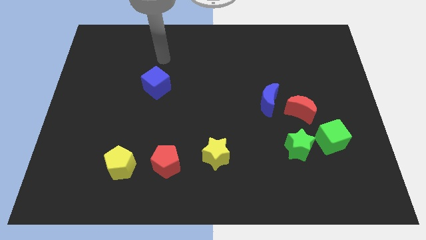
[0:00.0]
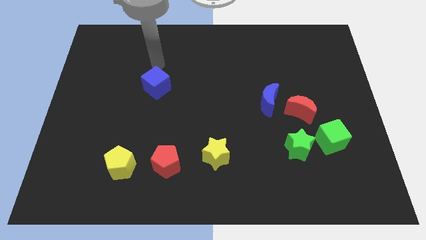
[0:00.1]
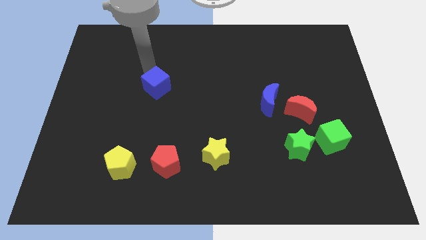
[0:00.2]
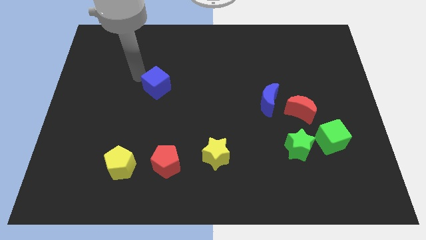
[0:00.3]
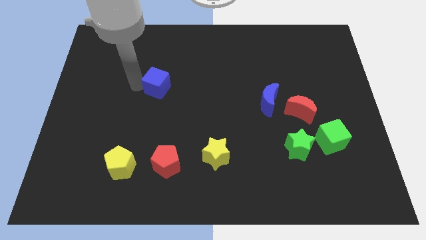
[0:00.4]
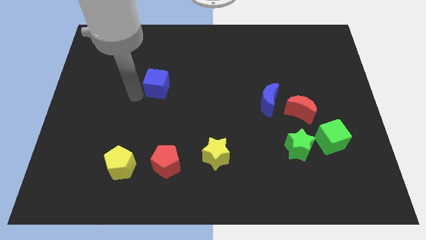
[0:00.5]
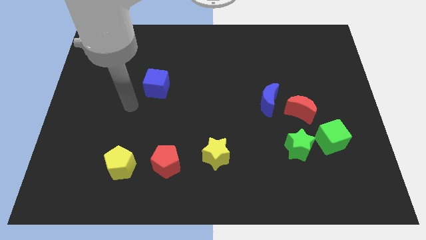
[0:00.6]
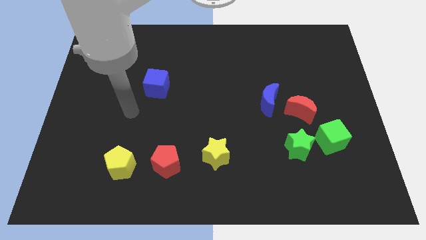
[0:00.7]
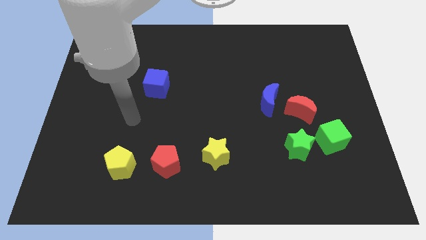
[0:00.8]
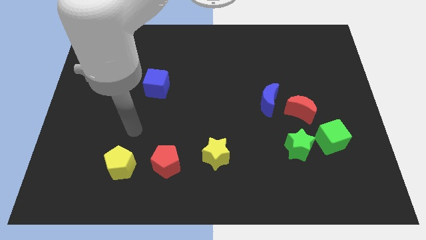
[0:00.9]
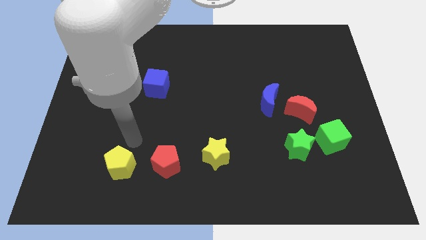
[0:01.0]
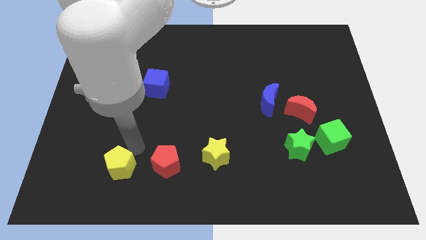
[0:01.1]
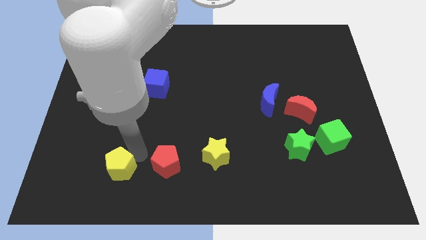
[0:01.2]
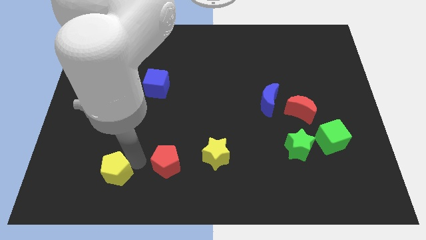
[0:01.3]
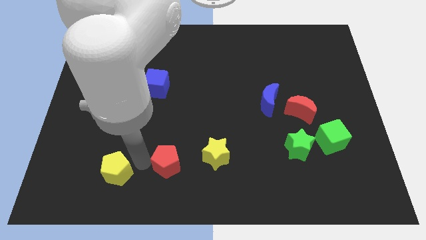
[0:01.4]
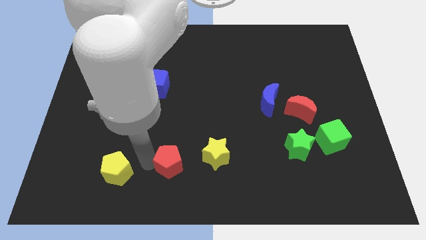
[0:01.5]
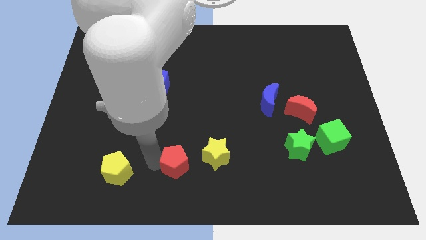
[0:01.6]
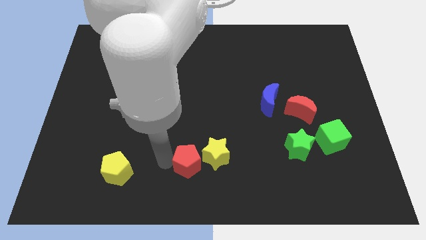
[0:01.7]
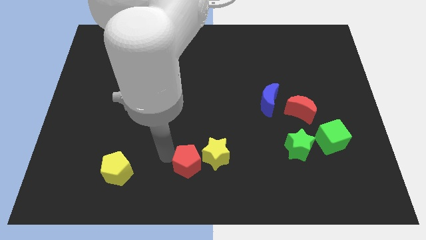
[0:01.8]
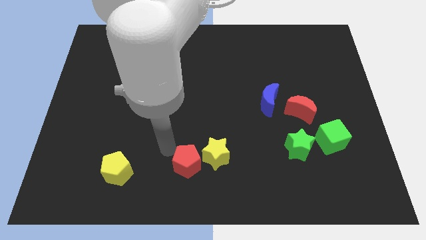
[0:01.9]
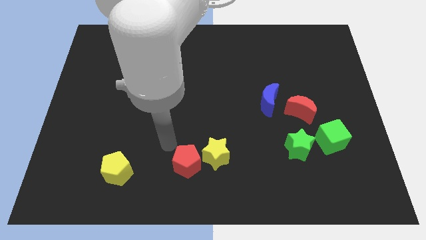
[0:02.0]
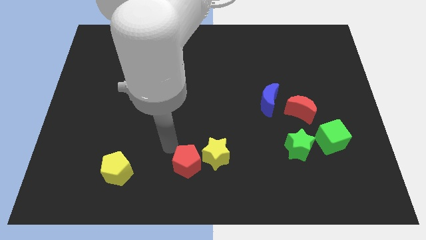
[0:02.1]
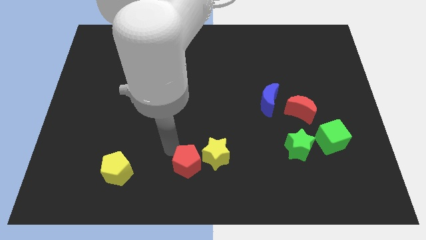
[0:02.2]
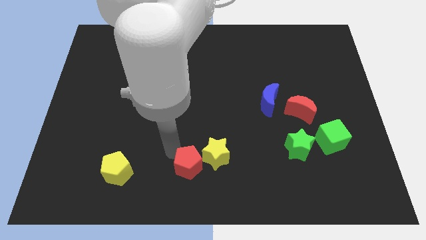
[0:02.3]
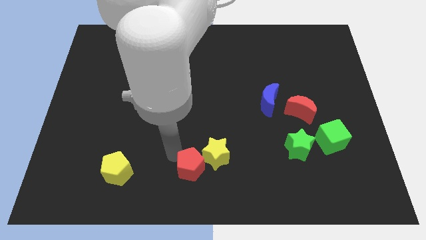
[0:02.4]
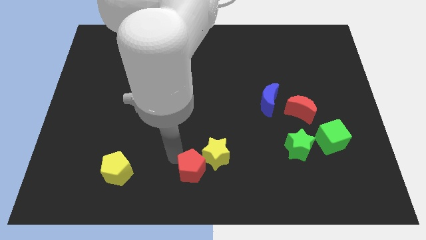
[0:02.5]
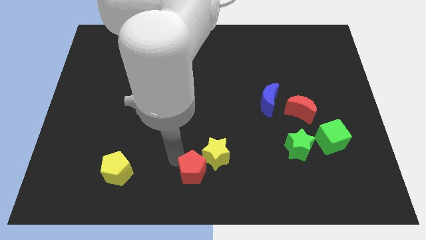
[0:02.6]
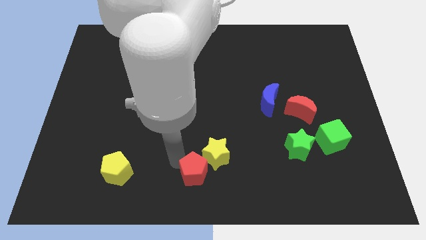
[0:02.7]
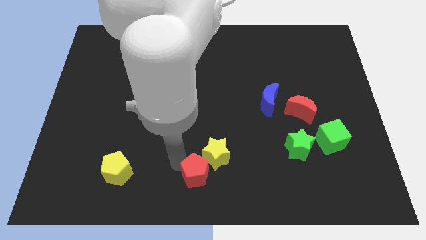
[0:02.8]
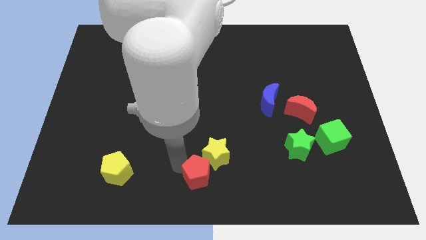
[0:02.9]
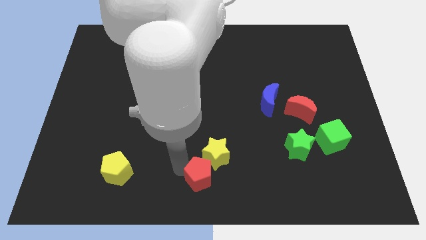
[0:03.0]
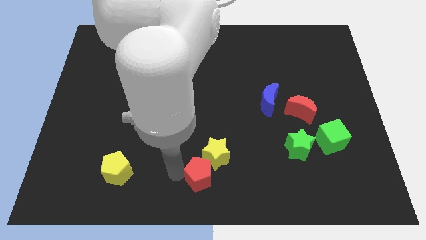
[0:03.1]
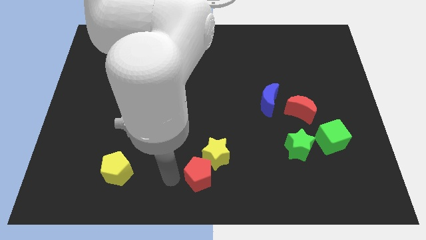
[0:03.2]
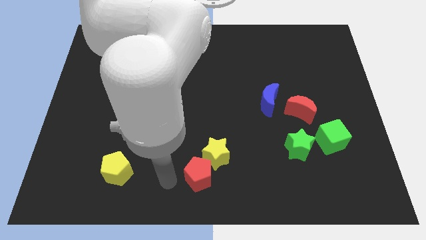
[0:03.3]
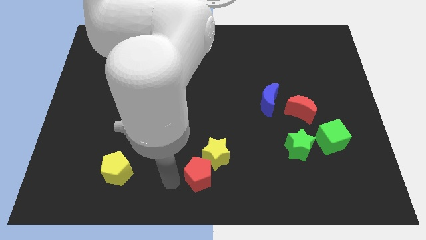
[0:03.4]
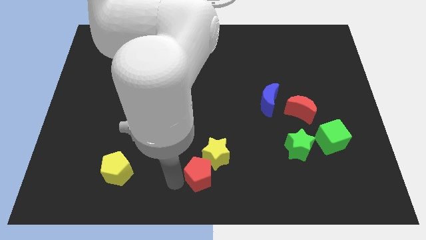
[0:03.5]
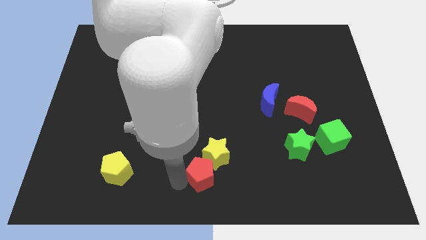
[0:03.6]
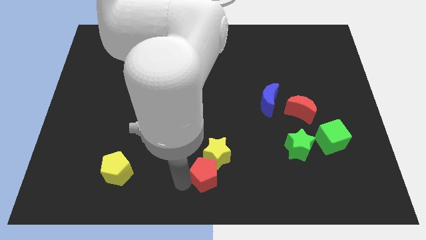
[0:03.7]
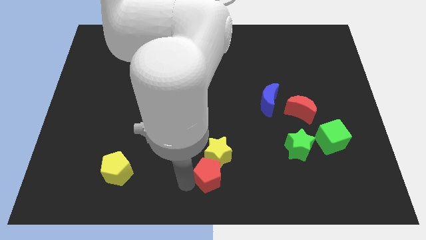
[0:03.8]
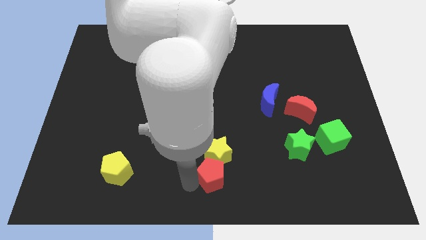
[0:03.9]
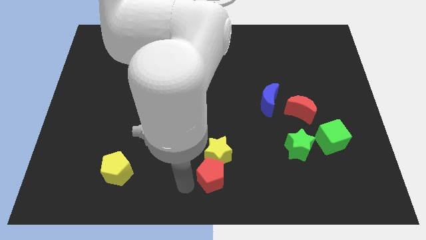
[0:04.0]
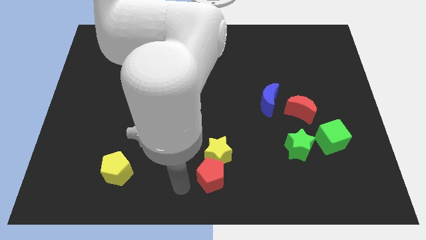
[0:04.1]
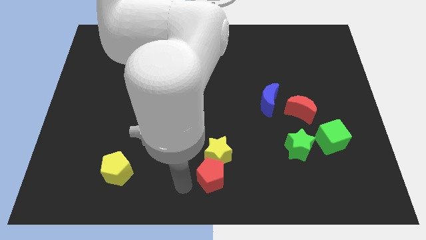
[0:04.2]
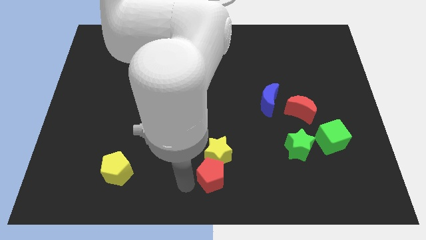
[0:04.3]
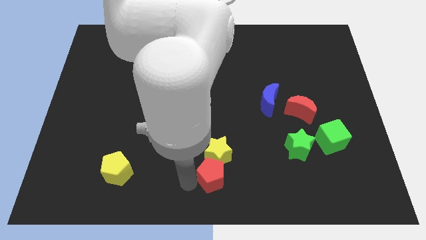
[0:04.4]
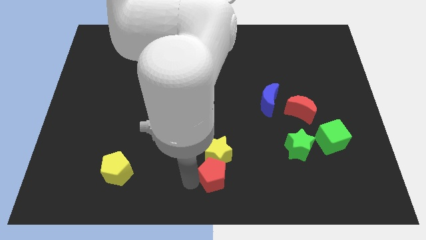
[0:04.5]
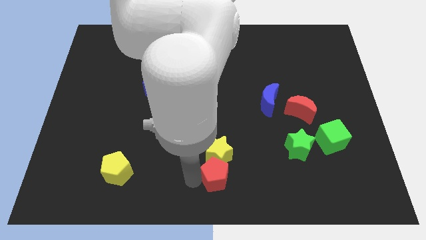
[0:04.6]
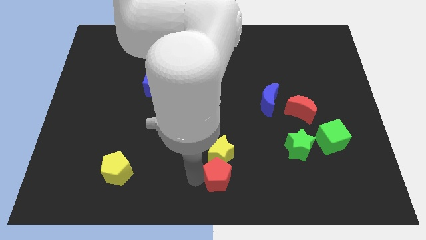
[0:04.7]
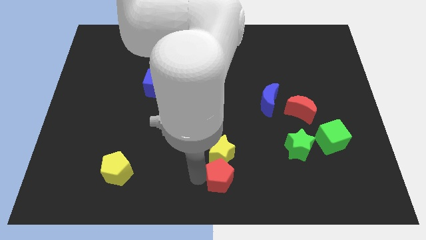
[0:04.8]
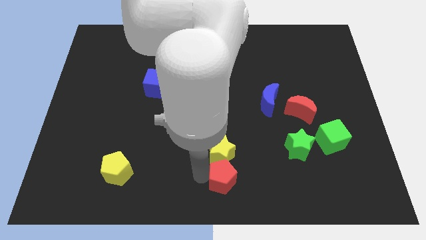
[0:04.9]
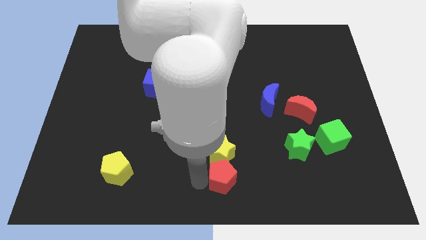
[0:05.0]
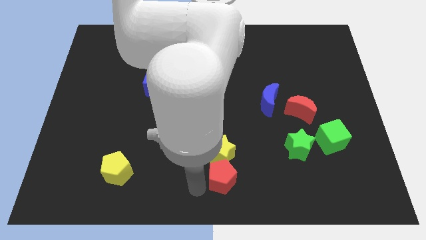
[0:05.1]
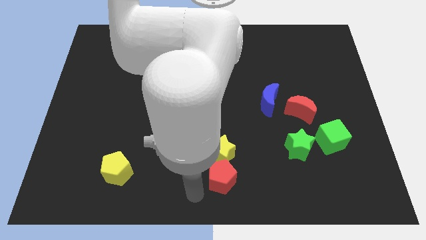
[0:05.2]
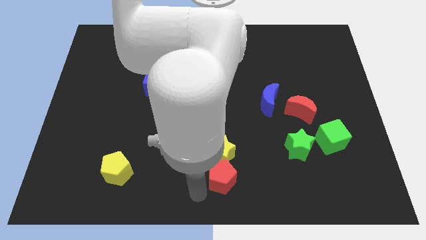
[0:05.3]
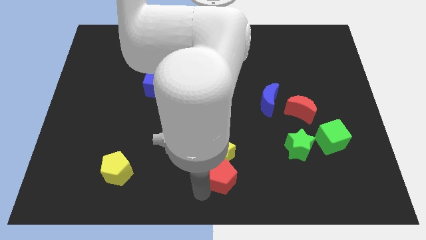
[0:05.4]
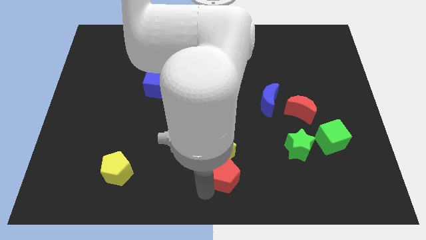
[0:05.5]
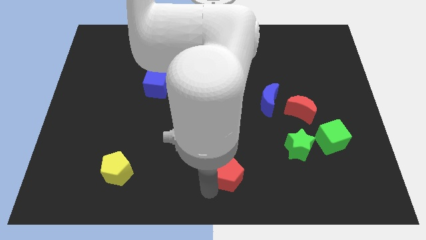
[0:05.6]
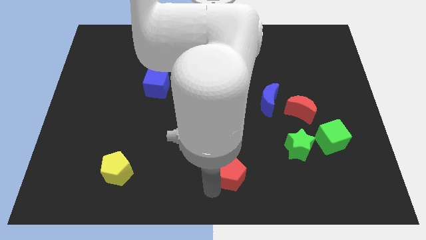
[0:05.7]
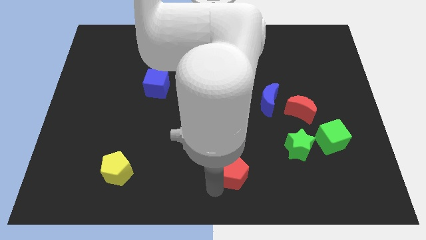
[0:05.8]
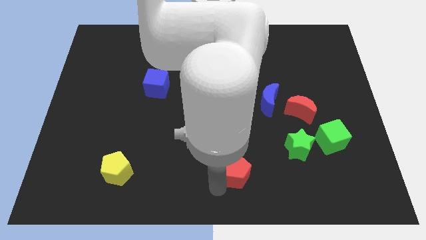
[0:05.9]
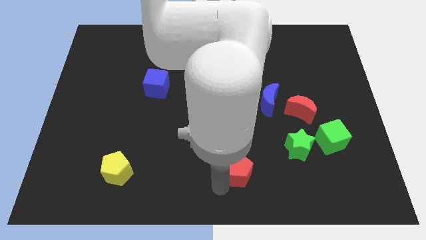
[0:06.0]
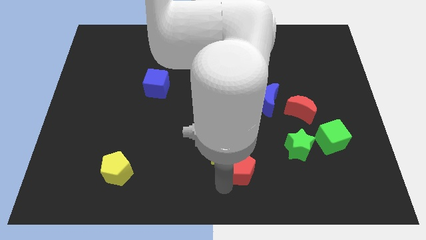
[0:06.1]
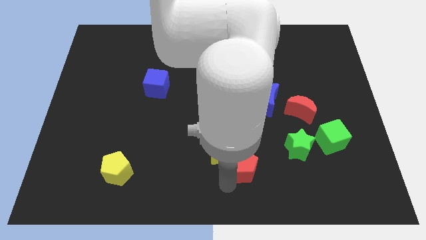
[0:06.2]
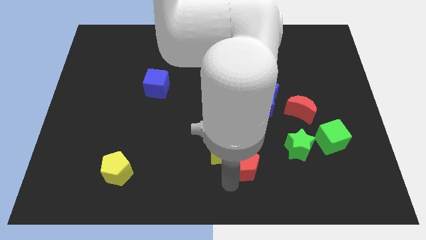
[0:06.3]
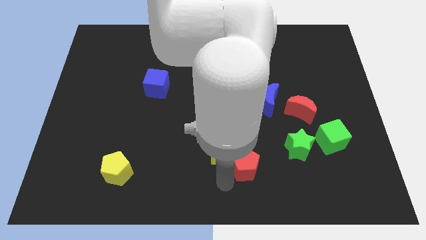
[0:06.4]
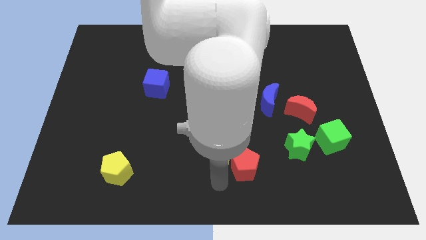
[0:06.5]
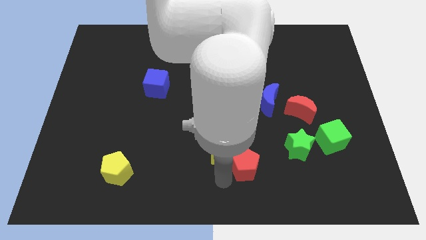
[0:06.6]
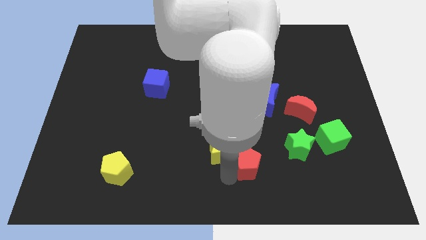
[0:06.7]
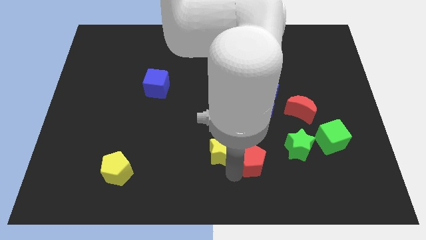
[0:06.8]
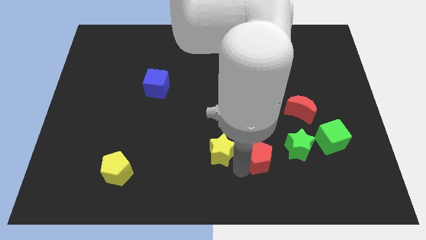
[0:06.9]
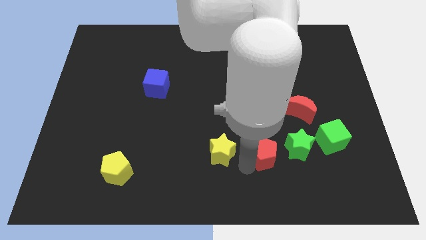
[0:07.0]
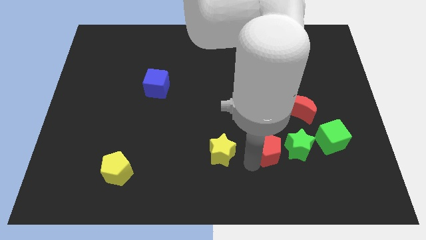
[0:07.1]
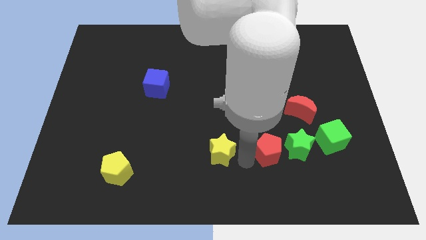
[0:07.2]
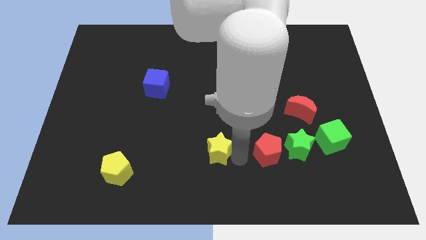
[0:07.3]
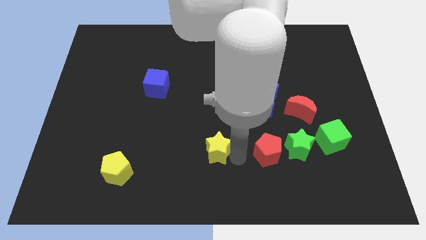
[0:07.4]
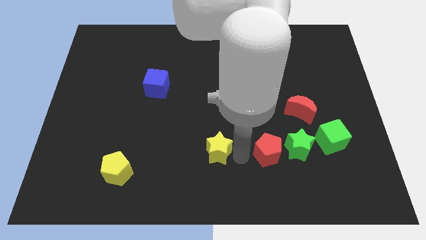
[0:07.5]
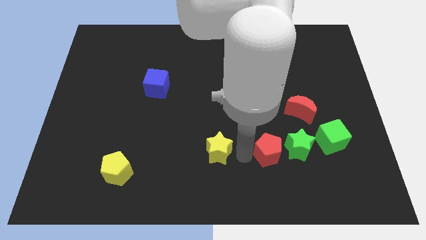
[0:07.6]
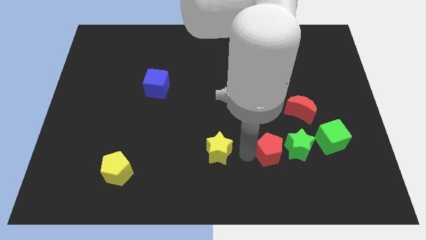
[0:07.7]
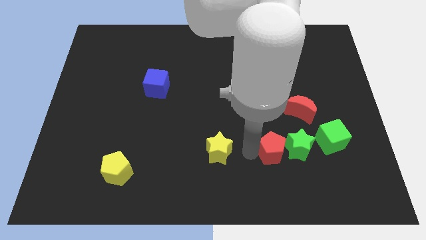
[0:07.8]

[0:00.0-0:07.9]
push the red pentagon to the green star
